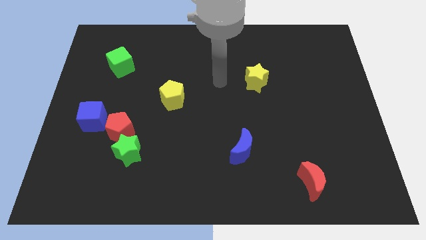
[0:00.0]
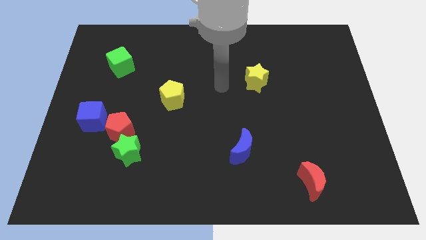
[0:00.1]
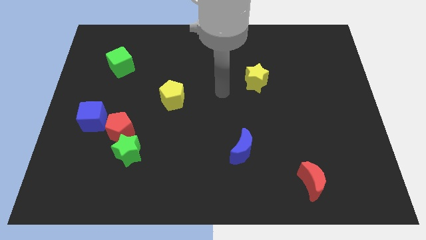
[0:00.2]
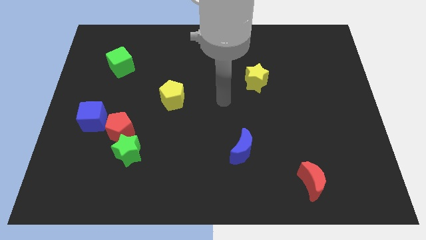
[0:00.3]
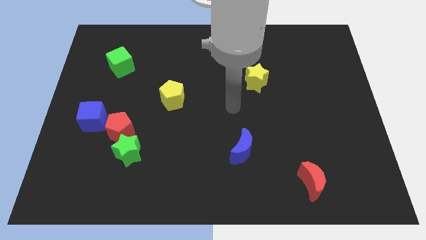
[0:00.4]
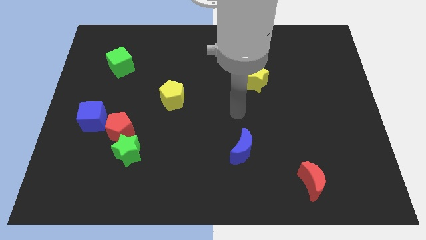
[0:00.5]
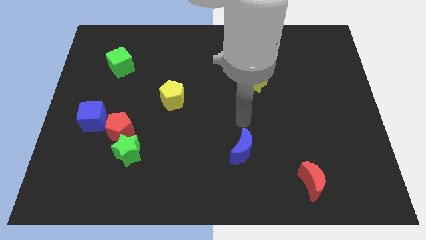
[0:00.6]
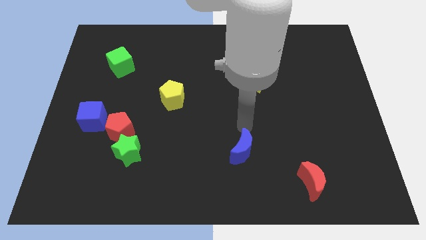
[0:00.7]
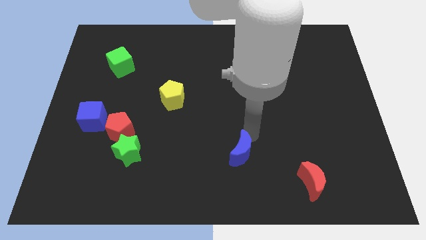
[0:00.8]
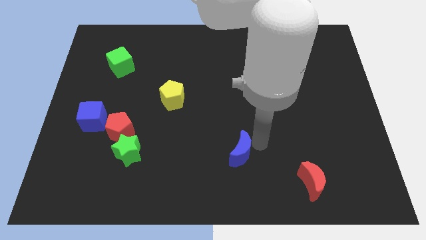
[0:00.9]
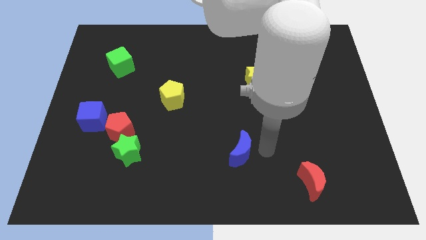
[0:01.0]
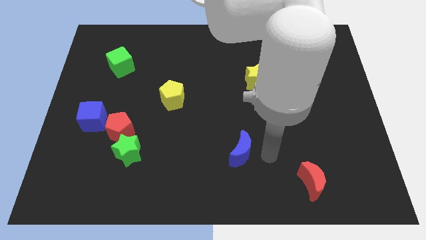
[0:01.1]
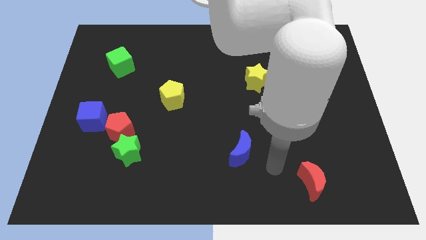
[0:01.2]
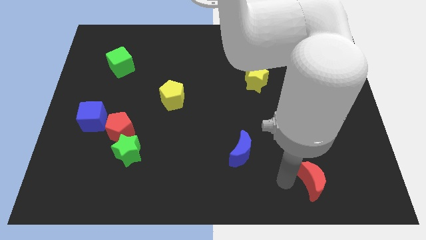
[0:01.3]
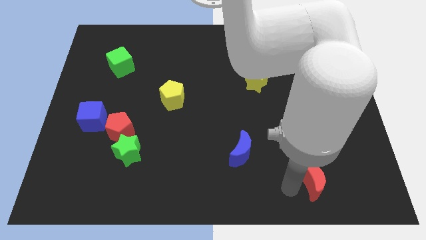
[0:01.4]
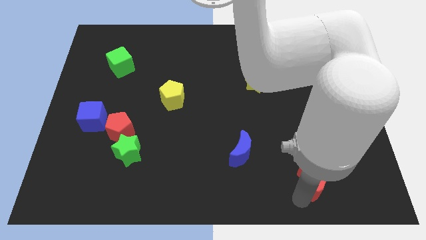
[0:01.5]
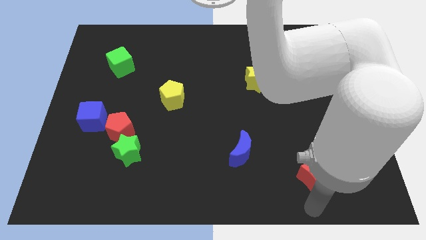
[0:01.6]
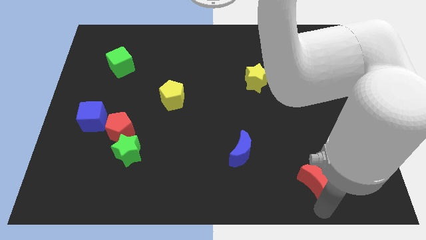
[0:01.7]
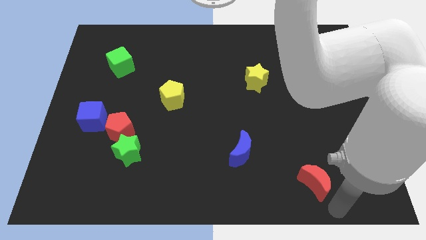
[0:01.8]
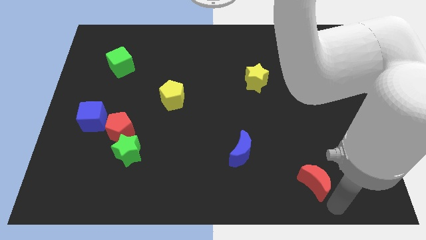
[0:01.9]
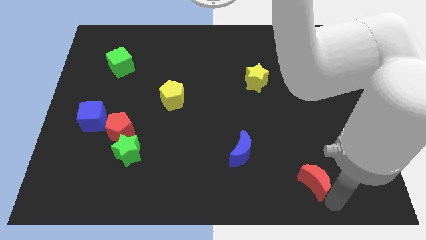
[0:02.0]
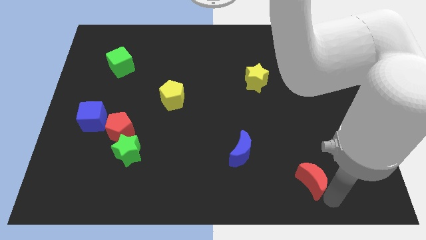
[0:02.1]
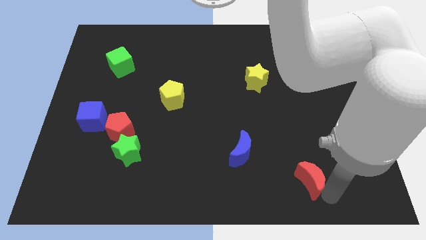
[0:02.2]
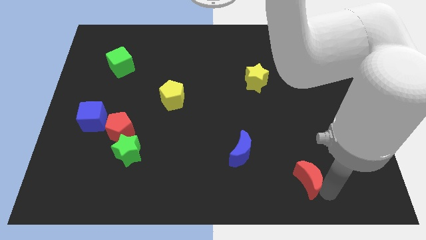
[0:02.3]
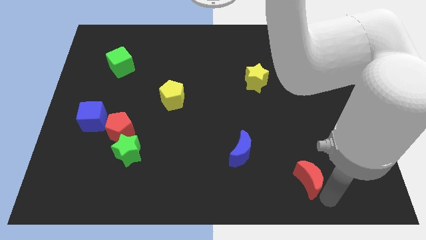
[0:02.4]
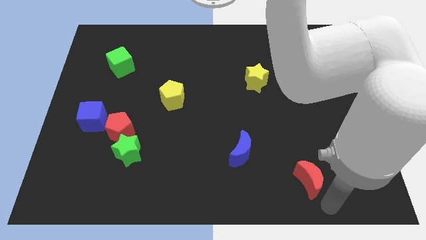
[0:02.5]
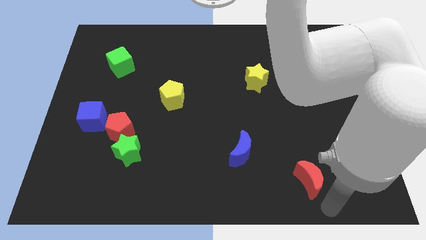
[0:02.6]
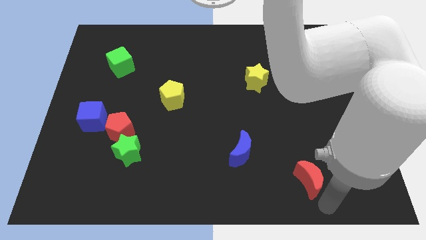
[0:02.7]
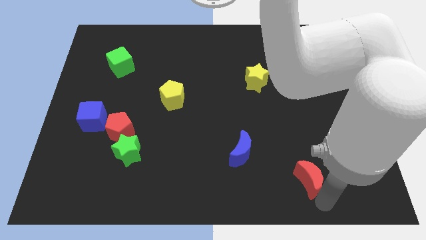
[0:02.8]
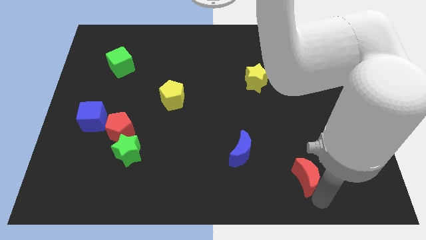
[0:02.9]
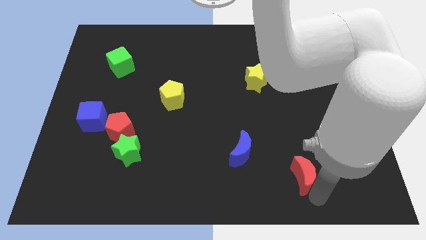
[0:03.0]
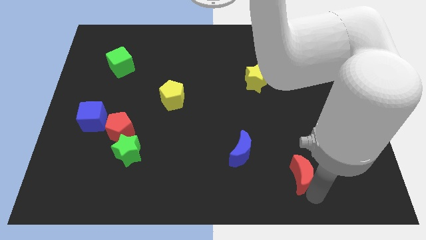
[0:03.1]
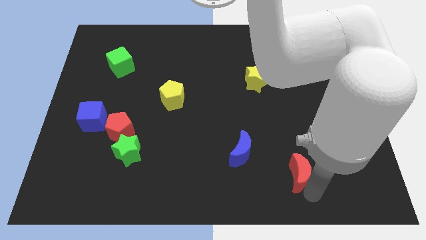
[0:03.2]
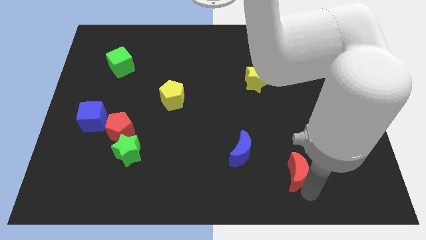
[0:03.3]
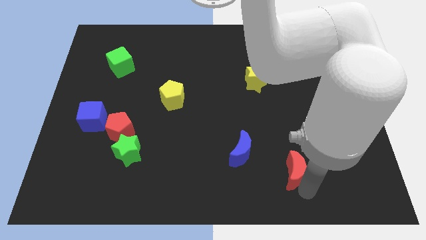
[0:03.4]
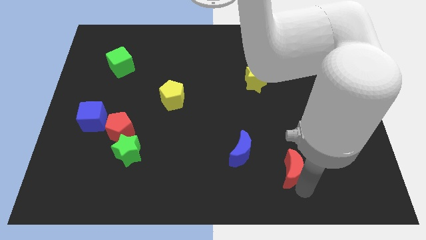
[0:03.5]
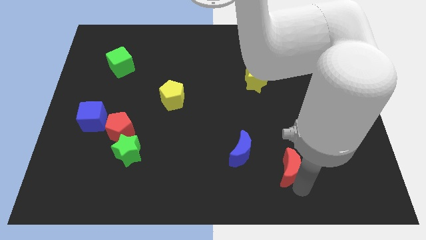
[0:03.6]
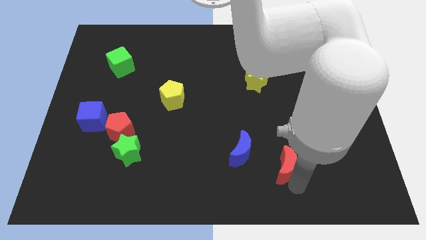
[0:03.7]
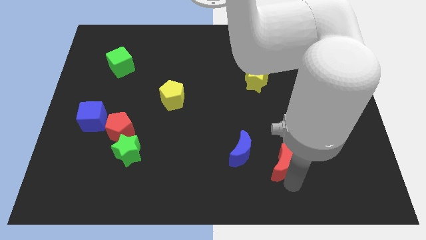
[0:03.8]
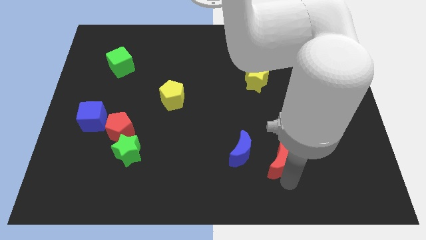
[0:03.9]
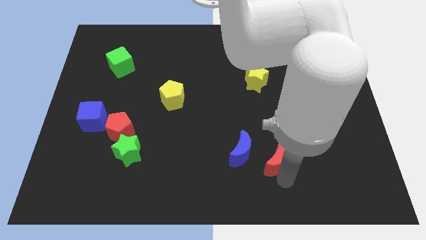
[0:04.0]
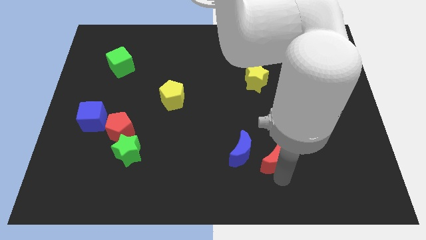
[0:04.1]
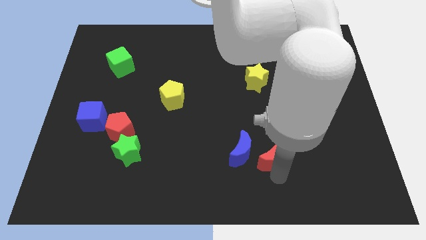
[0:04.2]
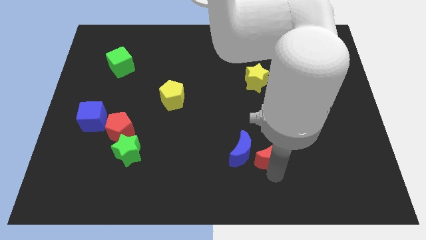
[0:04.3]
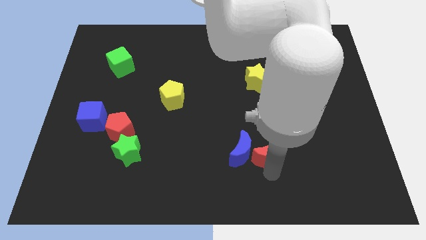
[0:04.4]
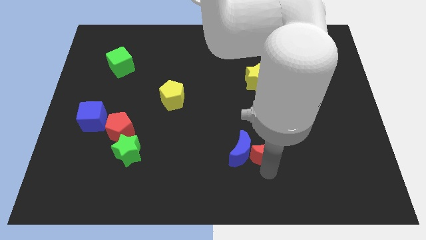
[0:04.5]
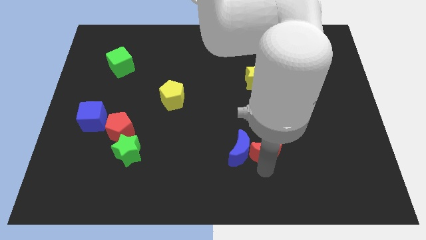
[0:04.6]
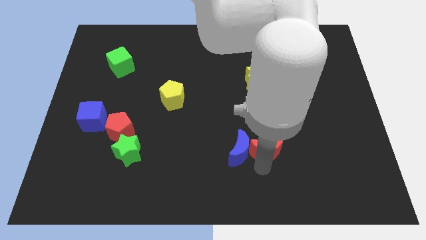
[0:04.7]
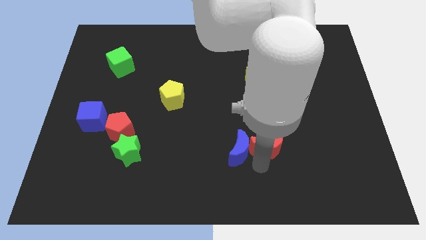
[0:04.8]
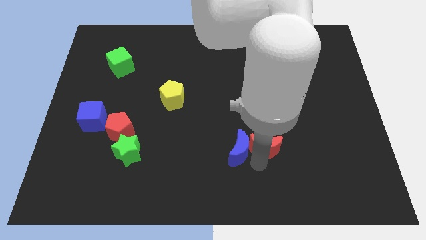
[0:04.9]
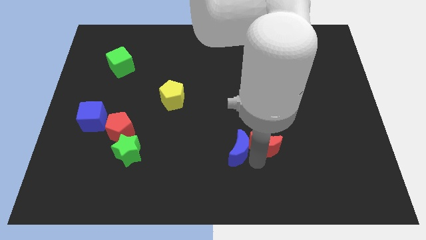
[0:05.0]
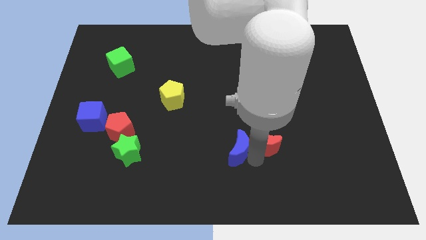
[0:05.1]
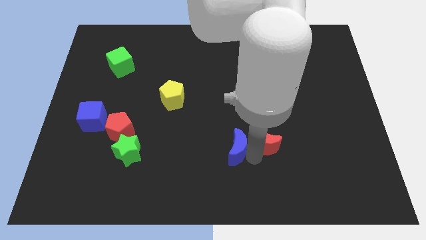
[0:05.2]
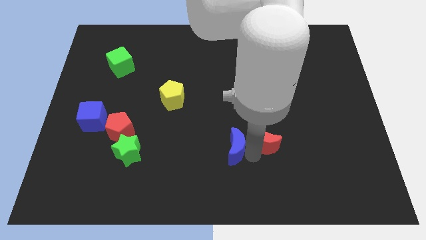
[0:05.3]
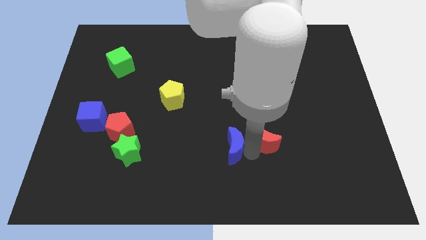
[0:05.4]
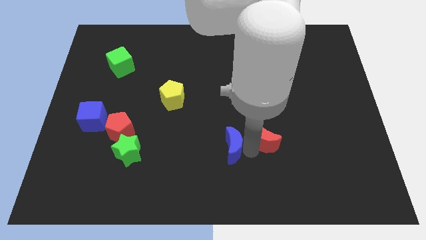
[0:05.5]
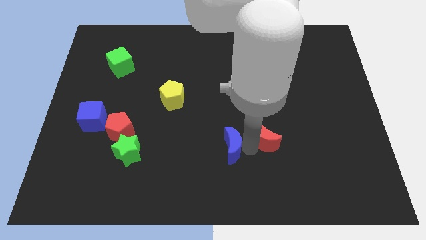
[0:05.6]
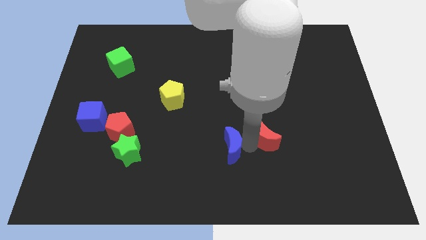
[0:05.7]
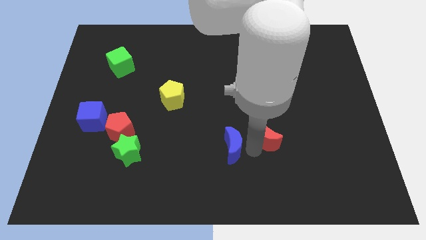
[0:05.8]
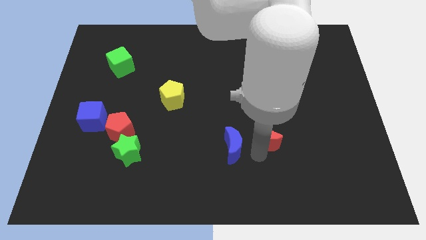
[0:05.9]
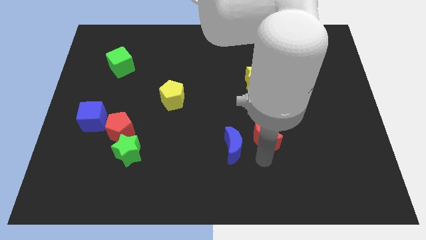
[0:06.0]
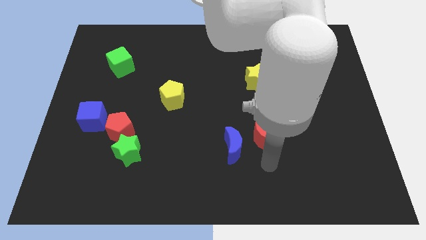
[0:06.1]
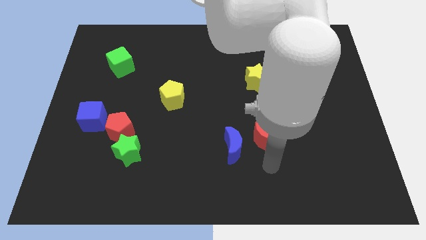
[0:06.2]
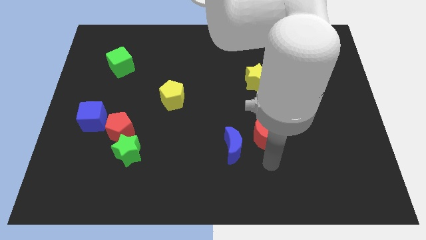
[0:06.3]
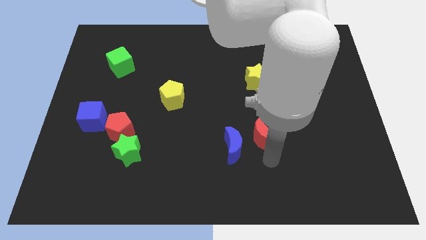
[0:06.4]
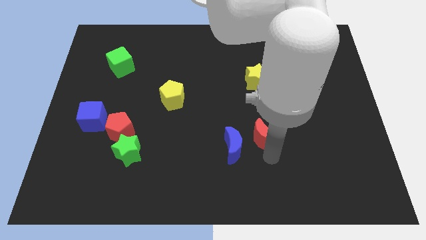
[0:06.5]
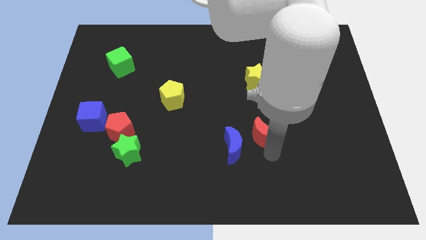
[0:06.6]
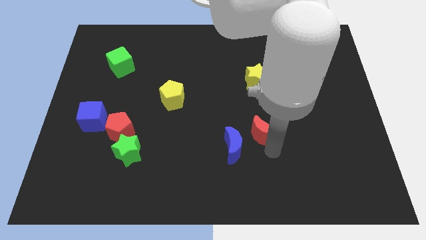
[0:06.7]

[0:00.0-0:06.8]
put the red moon below the yellow star
